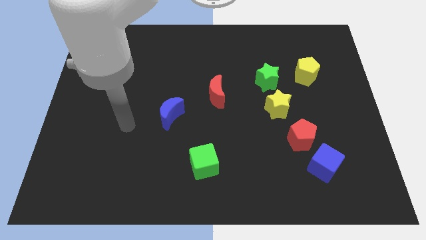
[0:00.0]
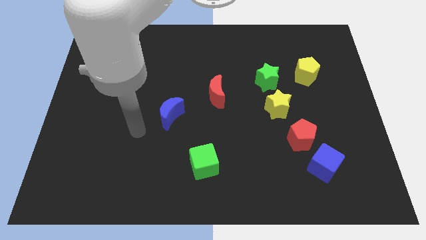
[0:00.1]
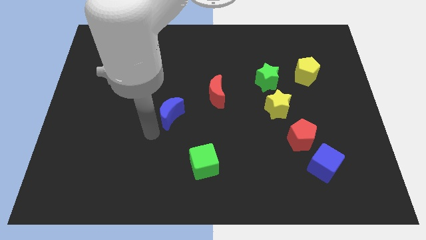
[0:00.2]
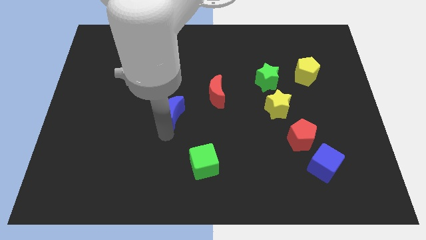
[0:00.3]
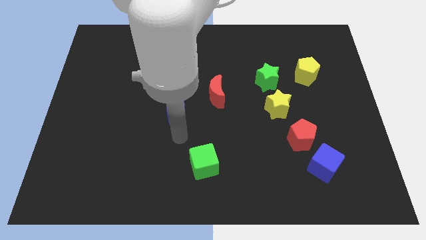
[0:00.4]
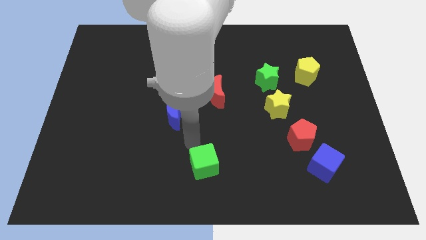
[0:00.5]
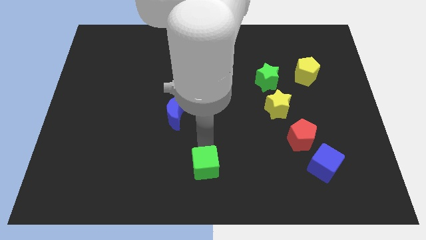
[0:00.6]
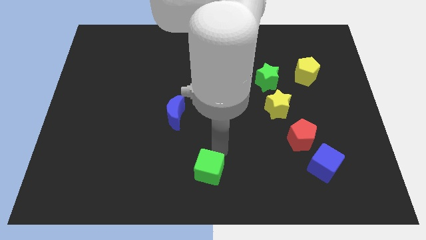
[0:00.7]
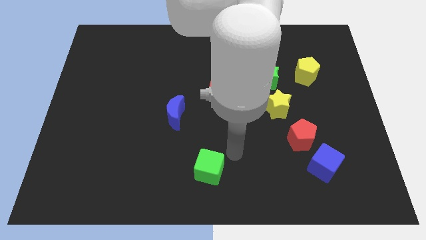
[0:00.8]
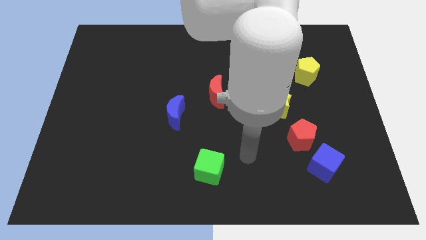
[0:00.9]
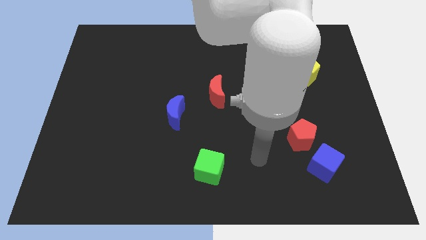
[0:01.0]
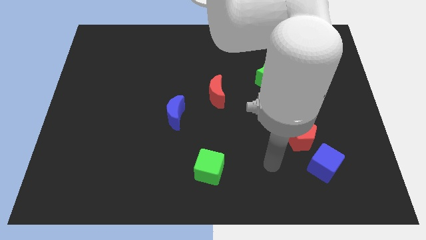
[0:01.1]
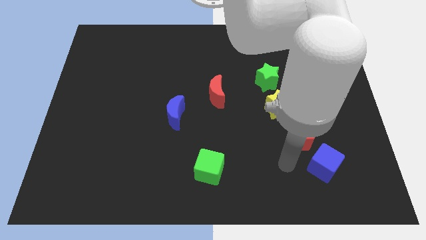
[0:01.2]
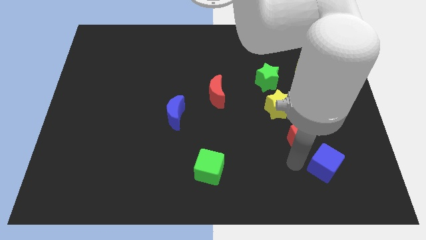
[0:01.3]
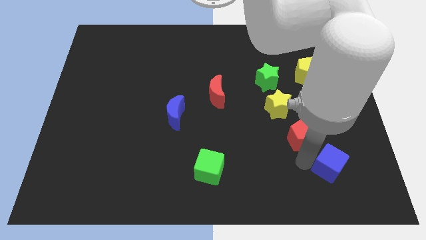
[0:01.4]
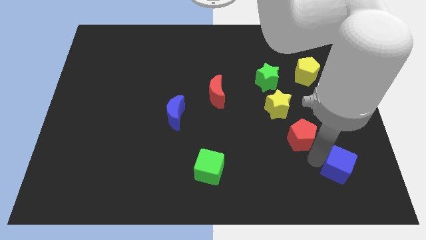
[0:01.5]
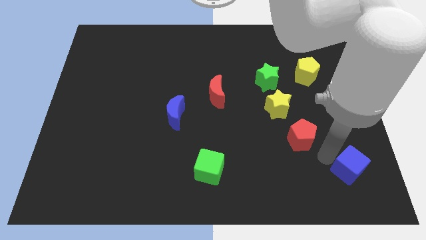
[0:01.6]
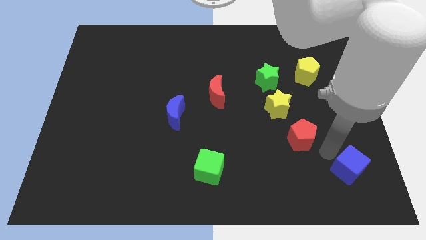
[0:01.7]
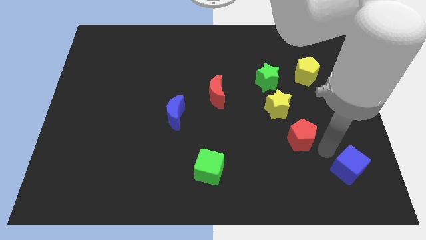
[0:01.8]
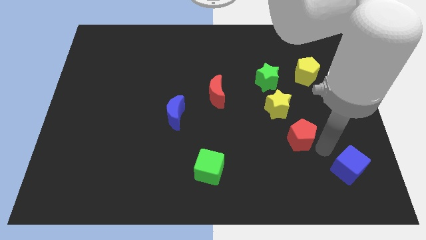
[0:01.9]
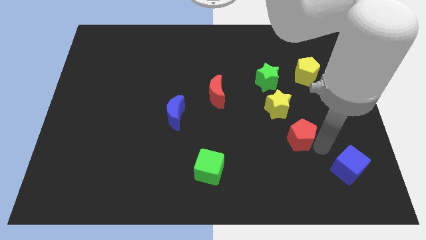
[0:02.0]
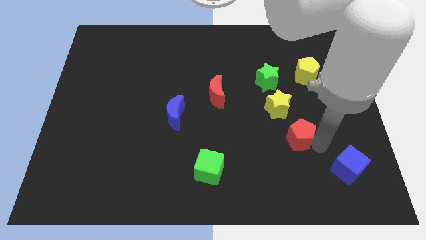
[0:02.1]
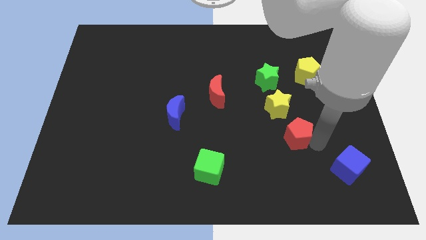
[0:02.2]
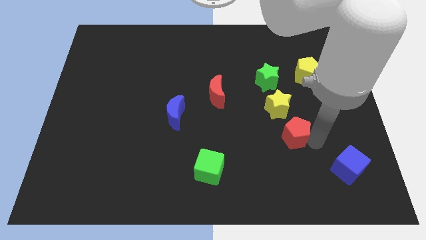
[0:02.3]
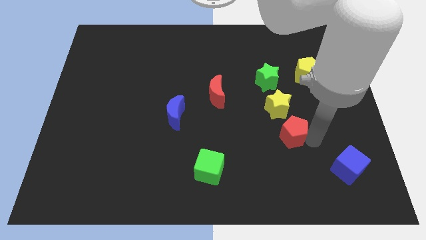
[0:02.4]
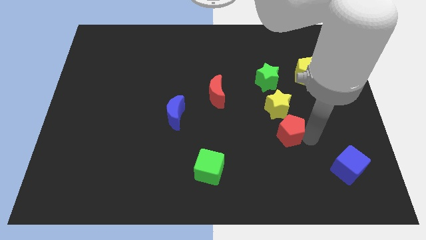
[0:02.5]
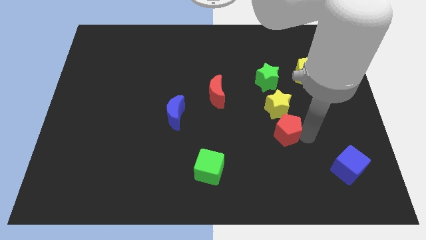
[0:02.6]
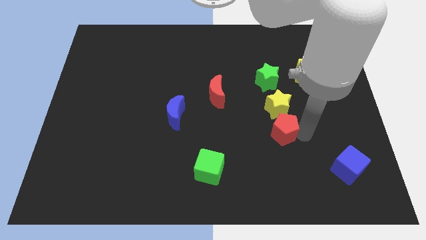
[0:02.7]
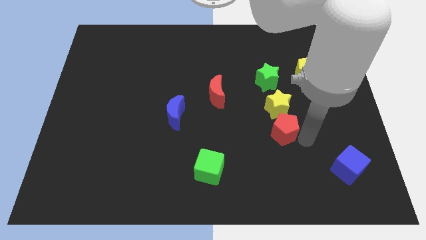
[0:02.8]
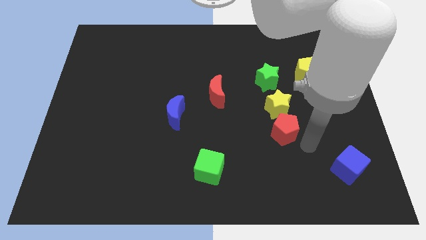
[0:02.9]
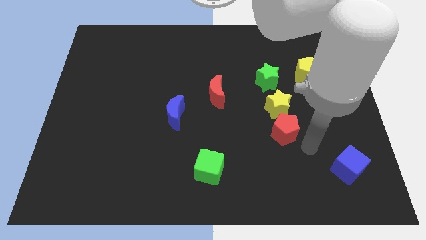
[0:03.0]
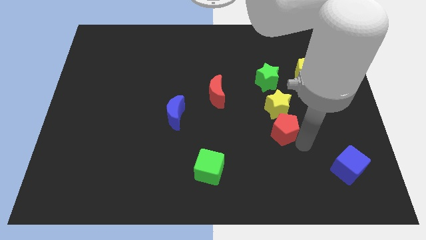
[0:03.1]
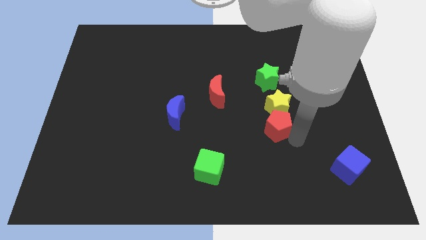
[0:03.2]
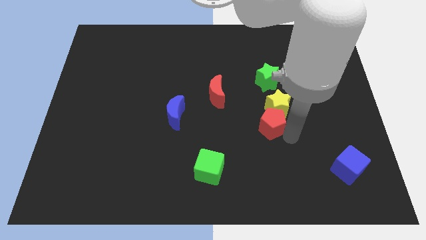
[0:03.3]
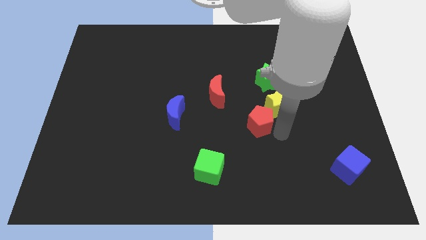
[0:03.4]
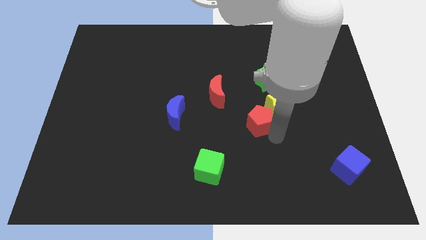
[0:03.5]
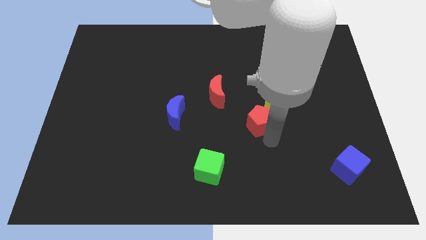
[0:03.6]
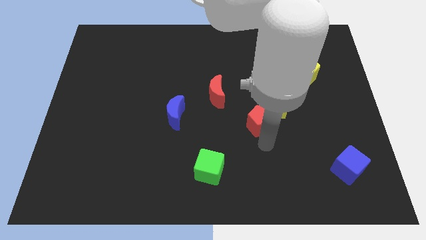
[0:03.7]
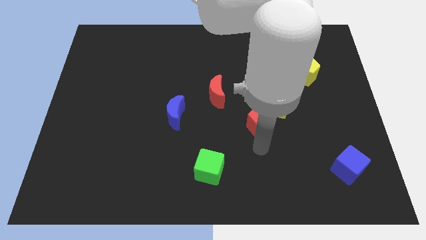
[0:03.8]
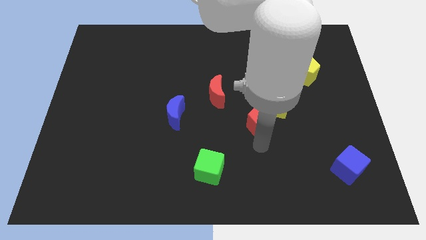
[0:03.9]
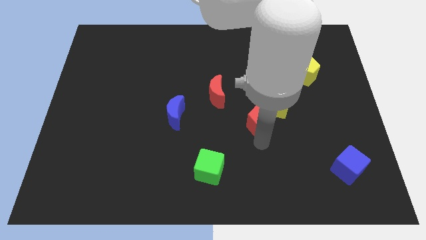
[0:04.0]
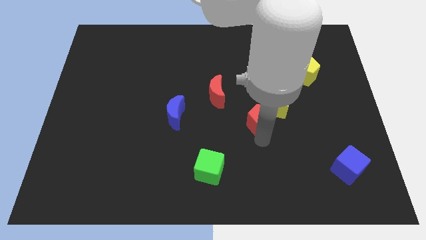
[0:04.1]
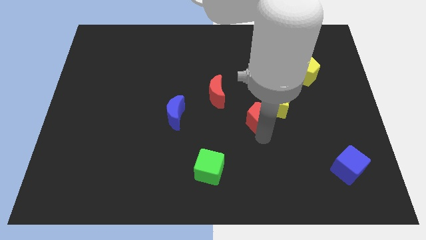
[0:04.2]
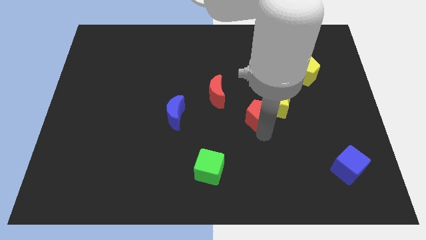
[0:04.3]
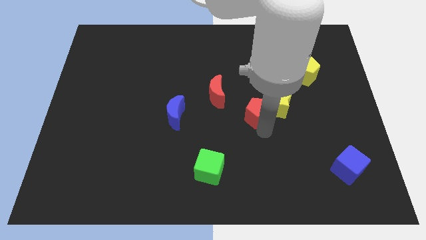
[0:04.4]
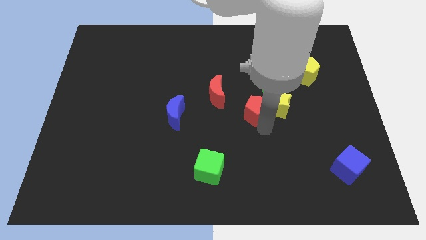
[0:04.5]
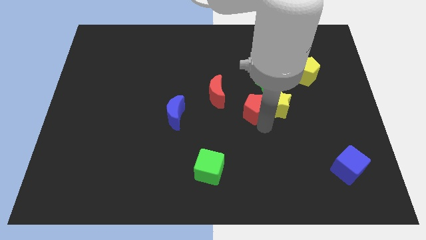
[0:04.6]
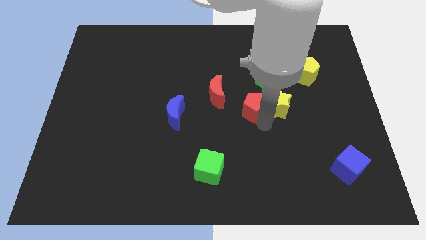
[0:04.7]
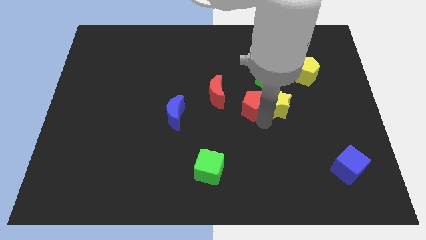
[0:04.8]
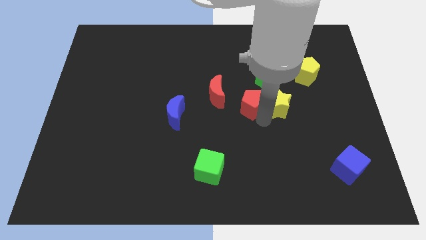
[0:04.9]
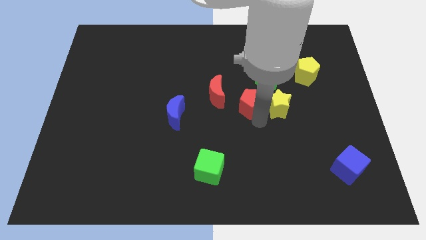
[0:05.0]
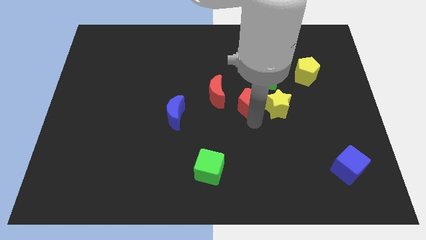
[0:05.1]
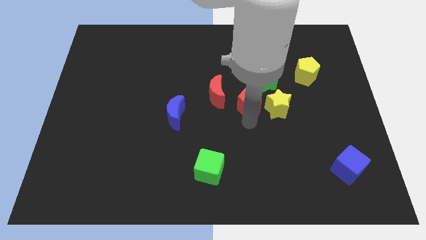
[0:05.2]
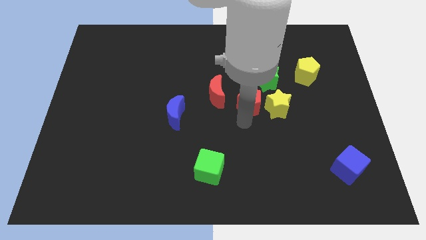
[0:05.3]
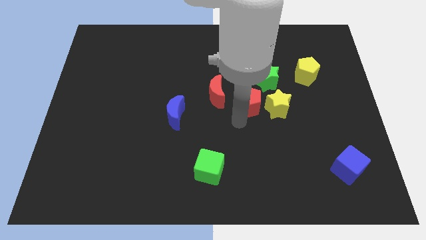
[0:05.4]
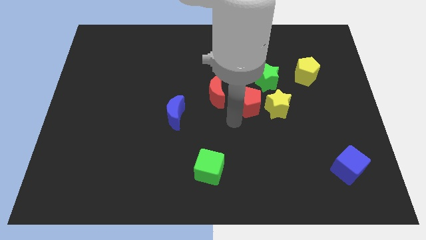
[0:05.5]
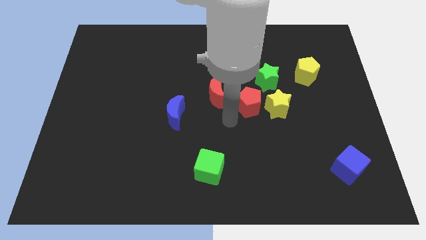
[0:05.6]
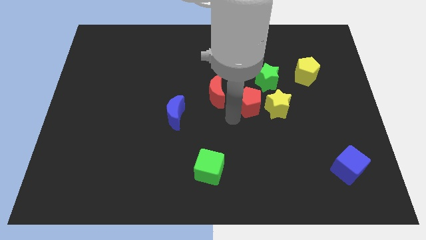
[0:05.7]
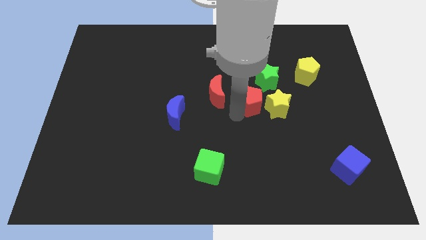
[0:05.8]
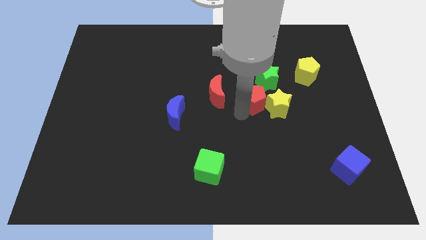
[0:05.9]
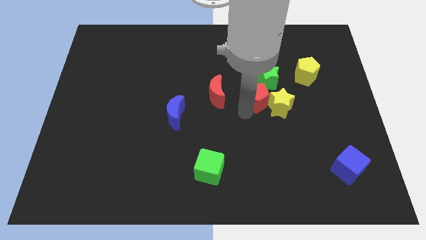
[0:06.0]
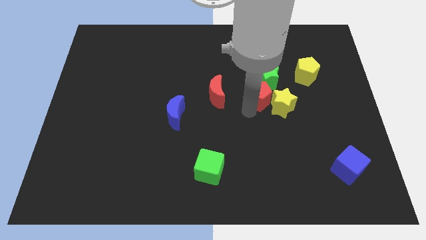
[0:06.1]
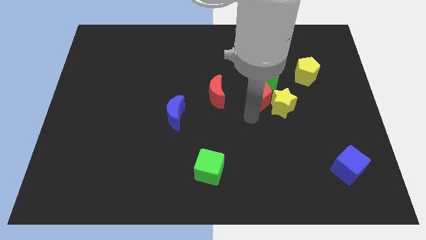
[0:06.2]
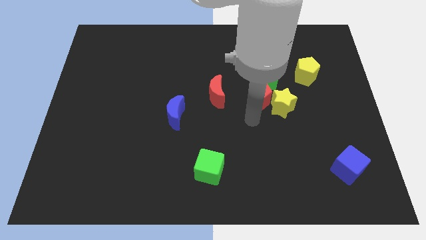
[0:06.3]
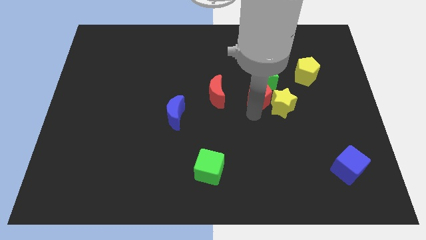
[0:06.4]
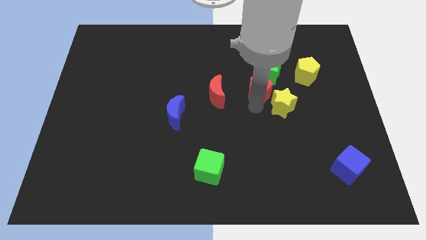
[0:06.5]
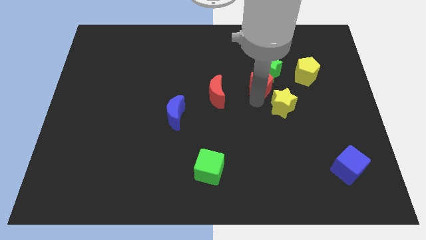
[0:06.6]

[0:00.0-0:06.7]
push the red pentagon just left of the yellow pentagon

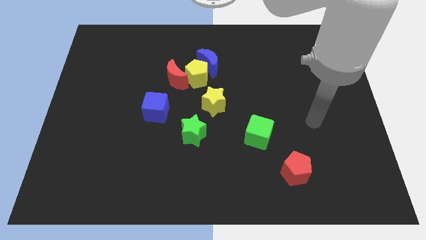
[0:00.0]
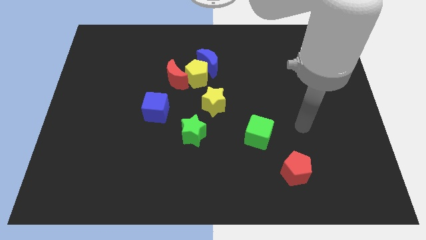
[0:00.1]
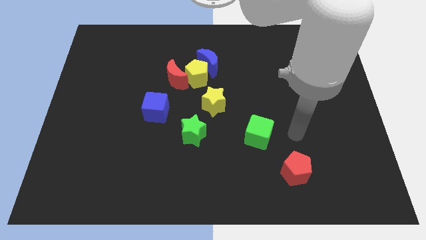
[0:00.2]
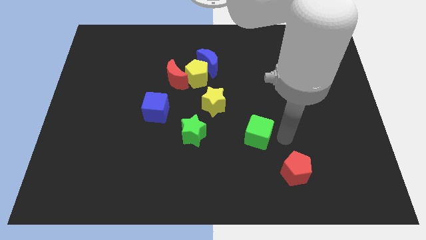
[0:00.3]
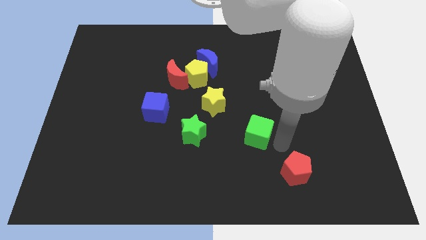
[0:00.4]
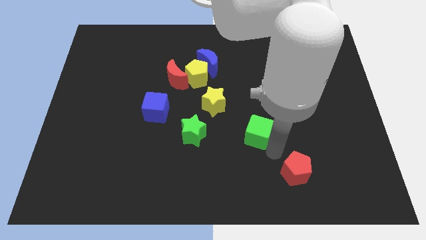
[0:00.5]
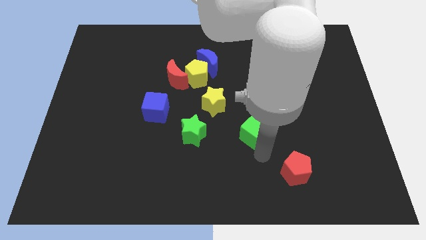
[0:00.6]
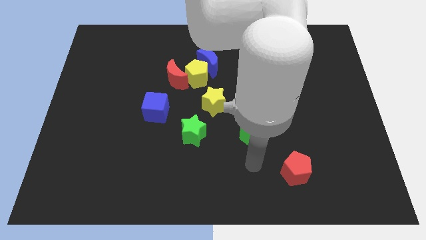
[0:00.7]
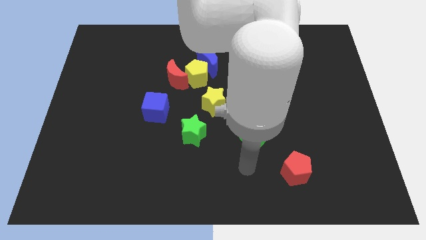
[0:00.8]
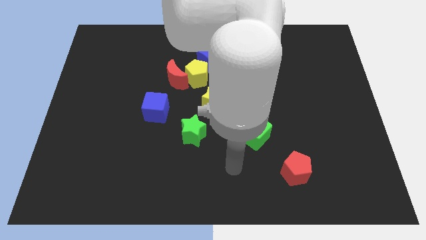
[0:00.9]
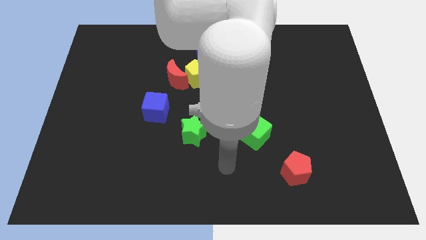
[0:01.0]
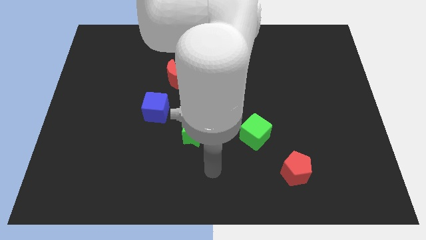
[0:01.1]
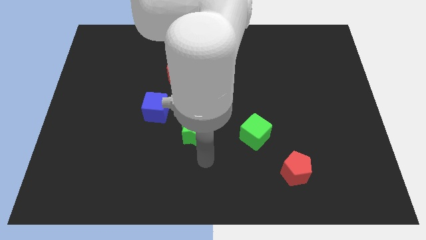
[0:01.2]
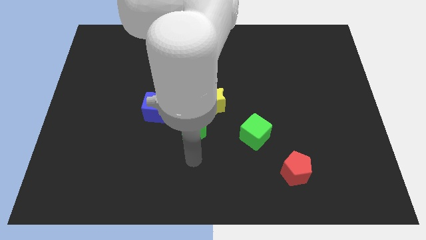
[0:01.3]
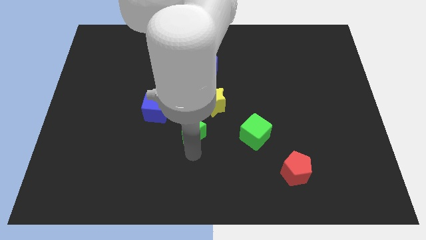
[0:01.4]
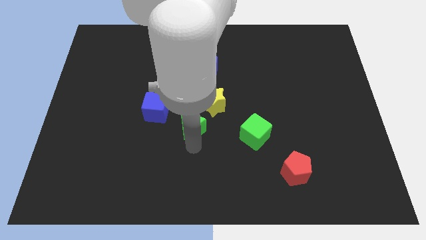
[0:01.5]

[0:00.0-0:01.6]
move the green star below the yellow pentagon
